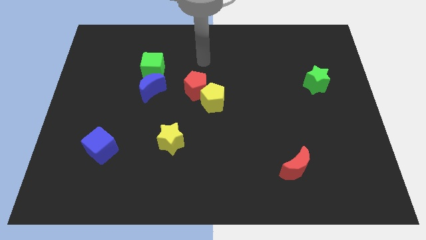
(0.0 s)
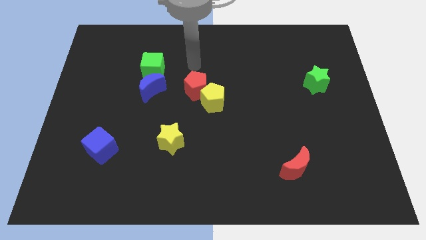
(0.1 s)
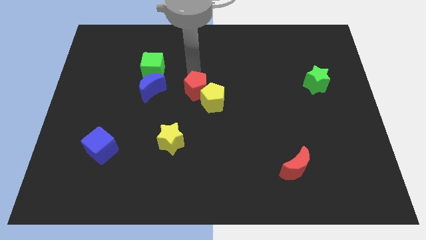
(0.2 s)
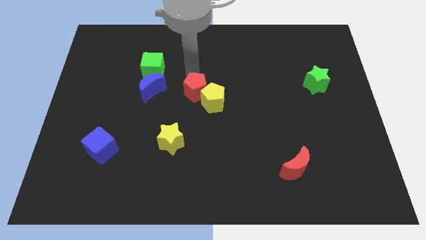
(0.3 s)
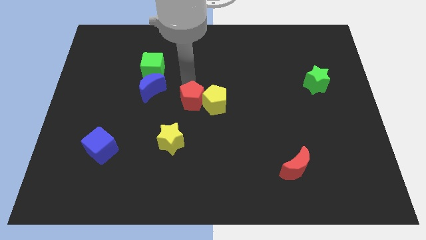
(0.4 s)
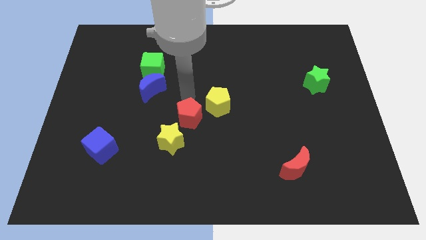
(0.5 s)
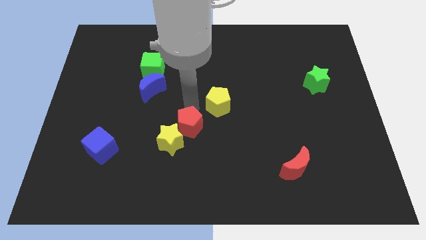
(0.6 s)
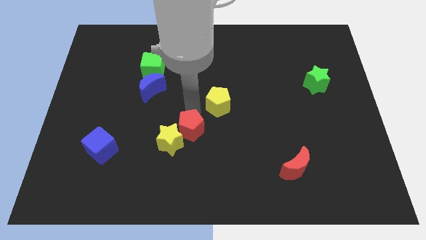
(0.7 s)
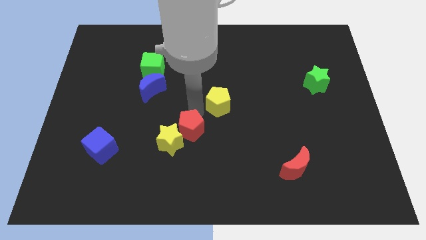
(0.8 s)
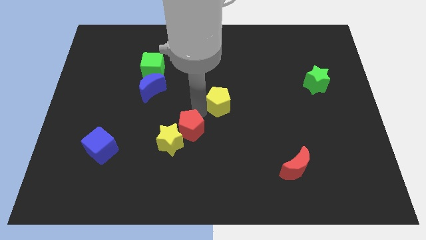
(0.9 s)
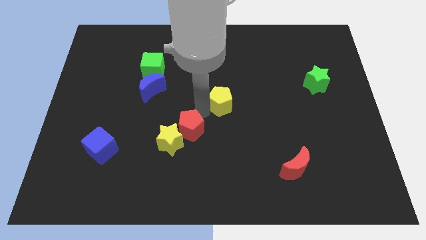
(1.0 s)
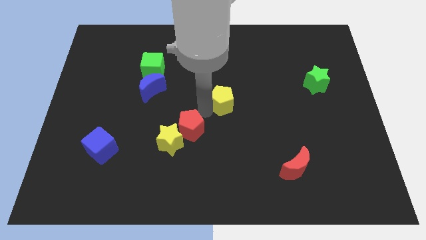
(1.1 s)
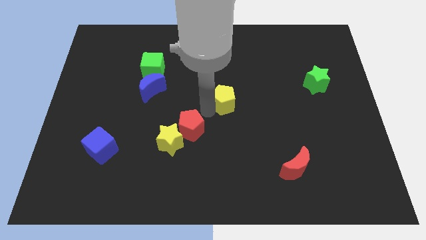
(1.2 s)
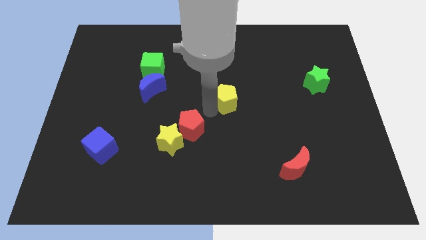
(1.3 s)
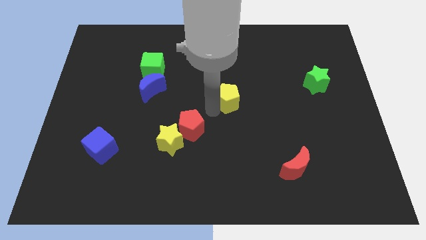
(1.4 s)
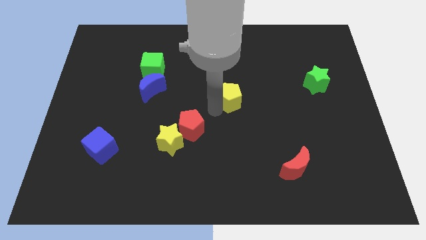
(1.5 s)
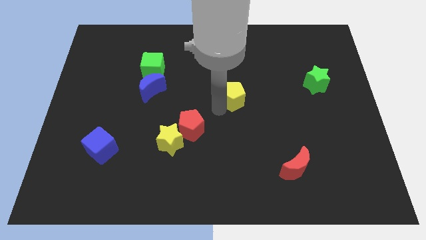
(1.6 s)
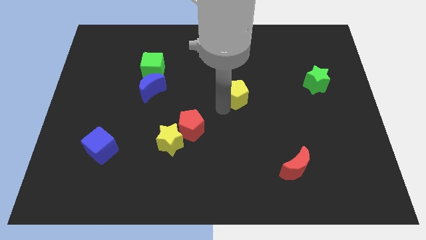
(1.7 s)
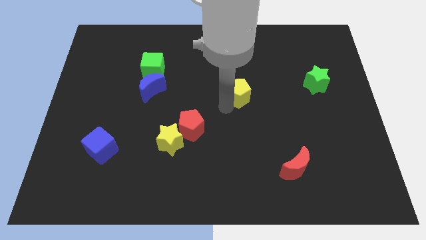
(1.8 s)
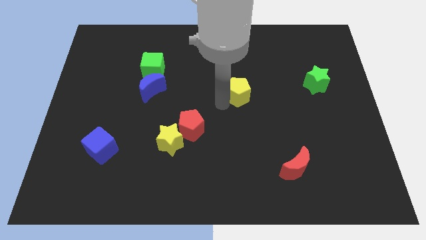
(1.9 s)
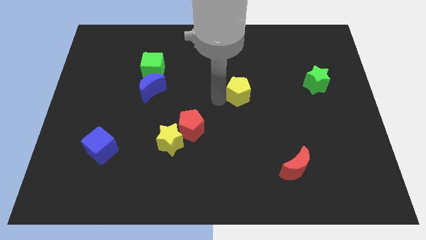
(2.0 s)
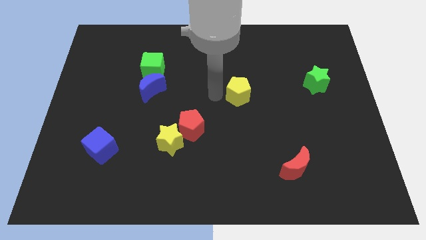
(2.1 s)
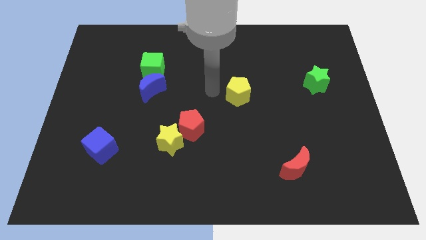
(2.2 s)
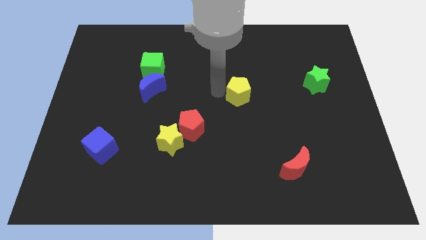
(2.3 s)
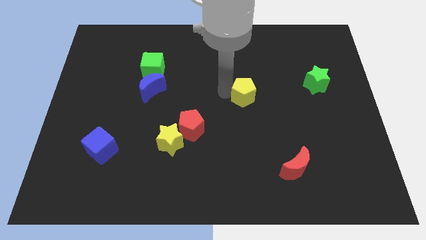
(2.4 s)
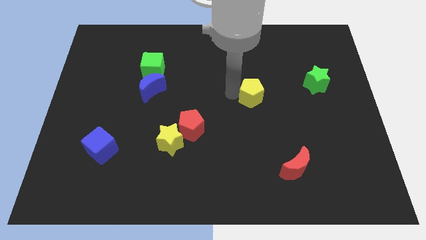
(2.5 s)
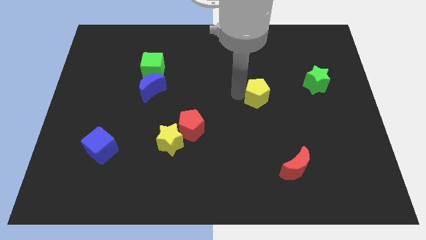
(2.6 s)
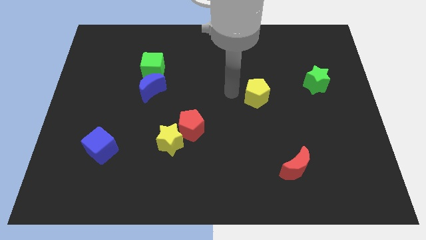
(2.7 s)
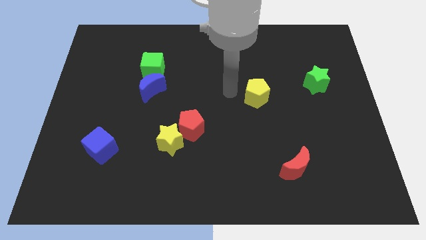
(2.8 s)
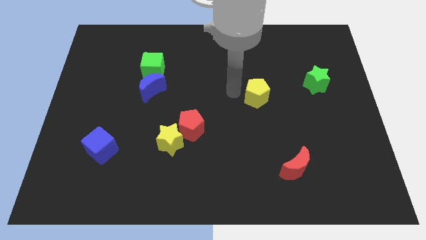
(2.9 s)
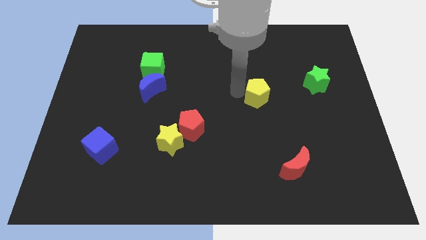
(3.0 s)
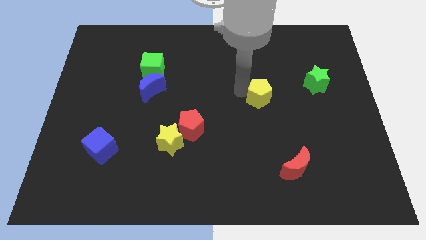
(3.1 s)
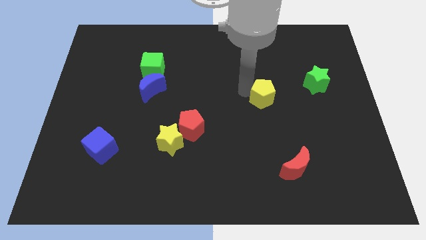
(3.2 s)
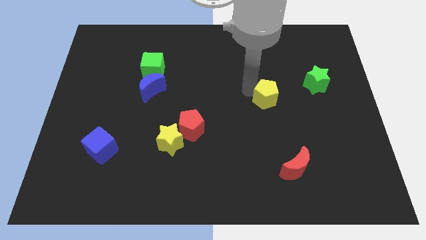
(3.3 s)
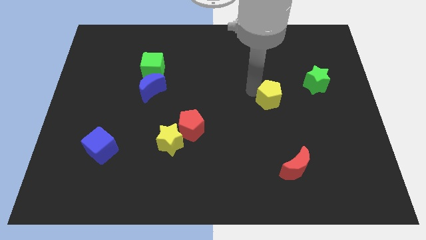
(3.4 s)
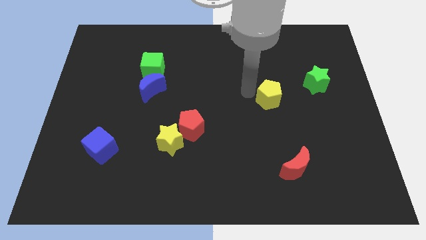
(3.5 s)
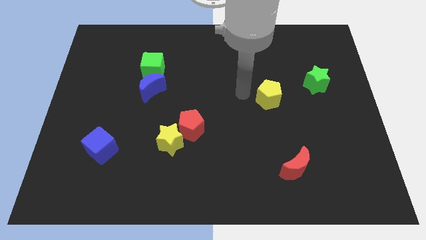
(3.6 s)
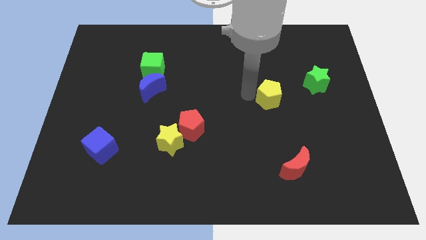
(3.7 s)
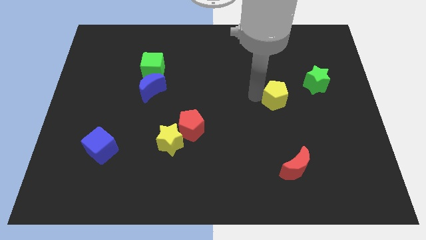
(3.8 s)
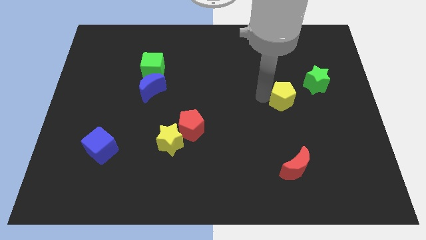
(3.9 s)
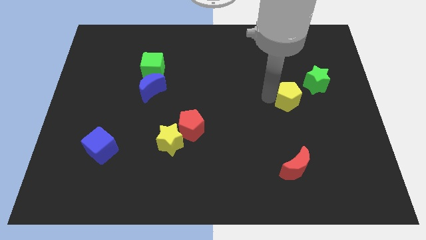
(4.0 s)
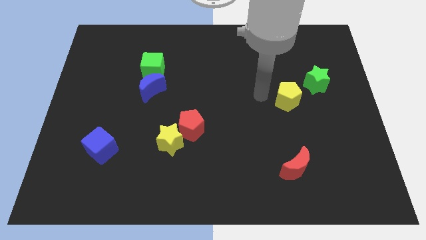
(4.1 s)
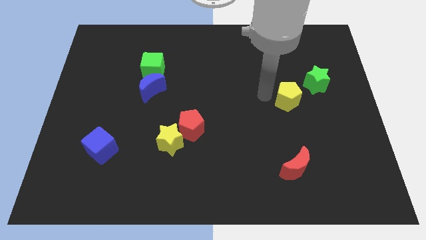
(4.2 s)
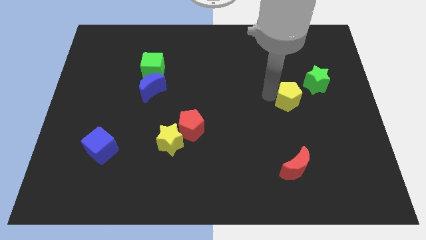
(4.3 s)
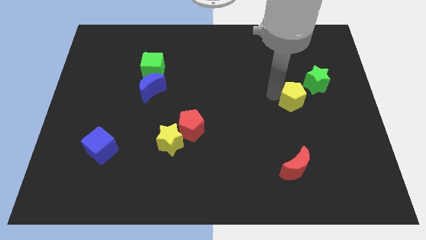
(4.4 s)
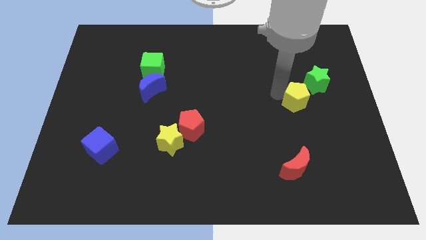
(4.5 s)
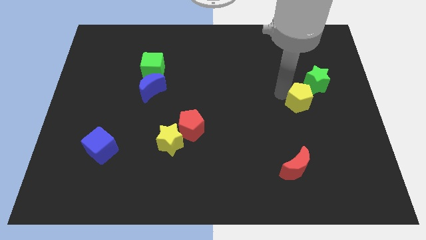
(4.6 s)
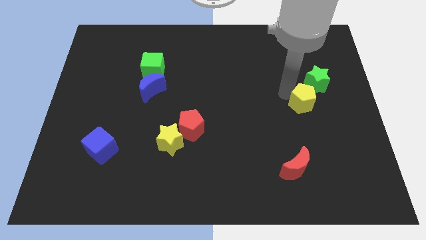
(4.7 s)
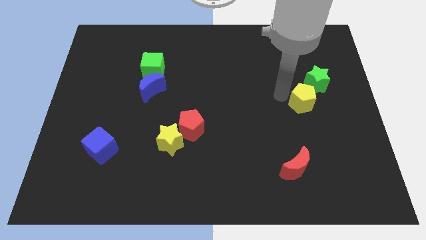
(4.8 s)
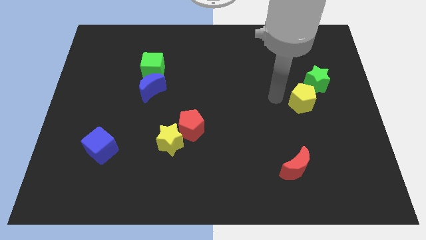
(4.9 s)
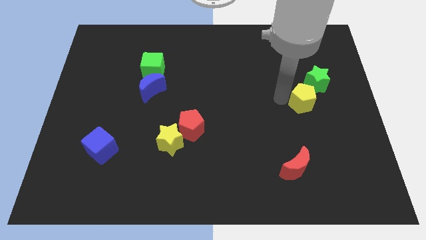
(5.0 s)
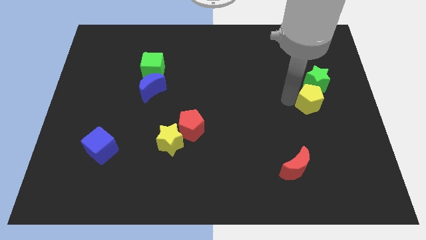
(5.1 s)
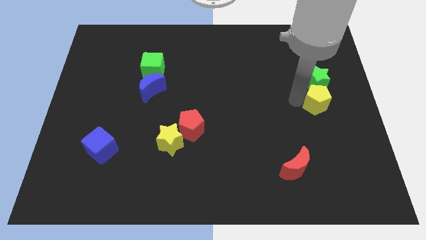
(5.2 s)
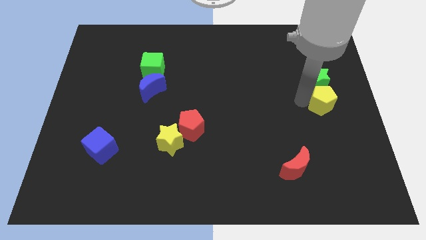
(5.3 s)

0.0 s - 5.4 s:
slide the yellow pentagon to the right side of the board

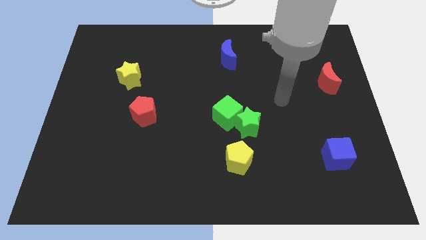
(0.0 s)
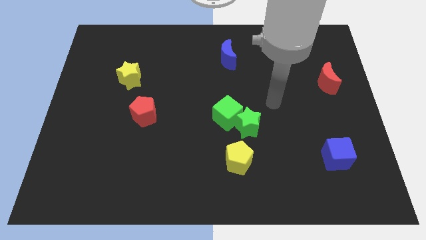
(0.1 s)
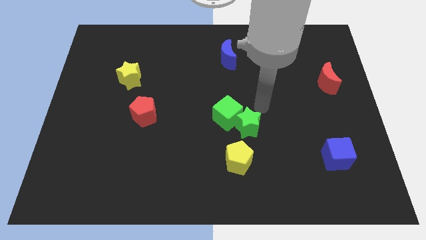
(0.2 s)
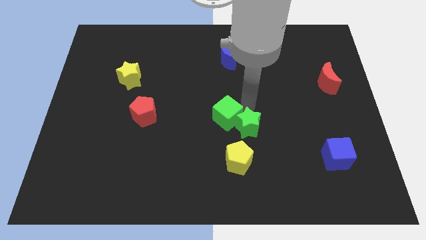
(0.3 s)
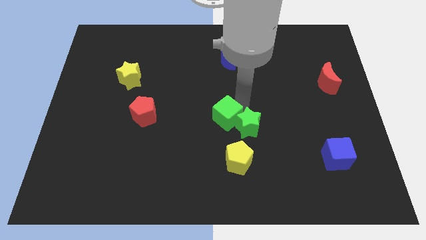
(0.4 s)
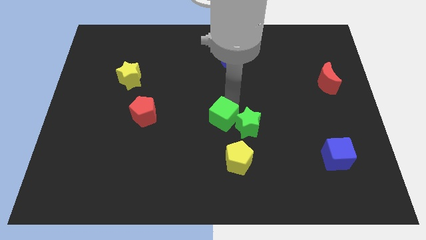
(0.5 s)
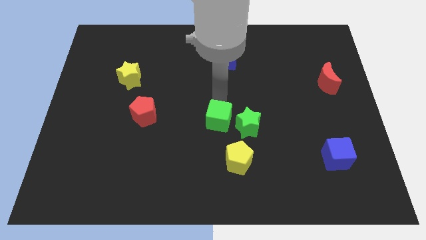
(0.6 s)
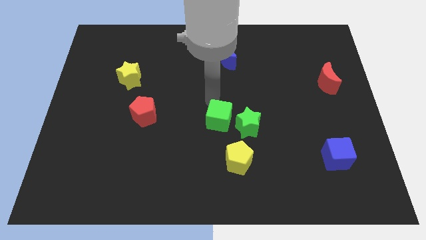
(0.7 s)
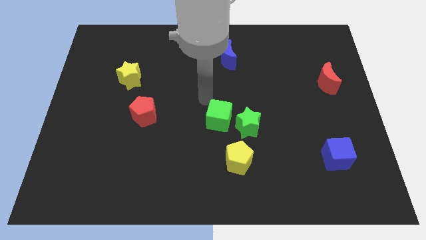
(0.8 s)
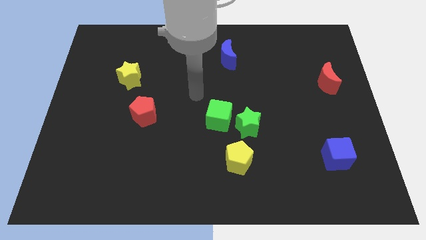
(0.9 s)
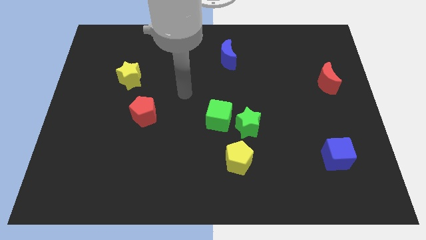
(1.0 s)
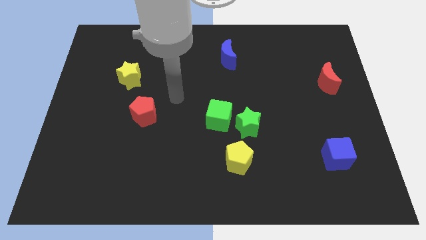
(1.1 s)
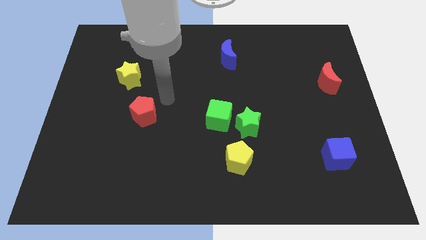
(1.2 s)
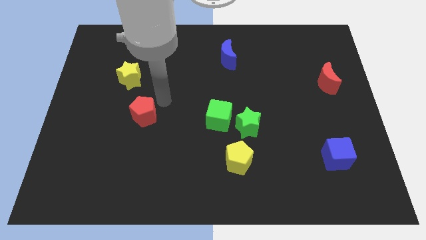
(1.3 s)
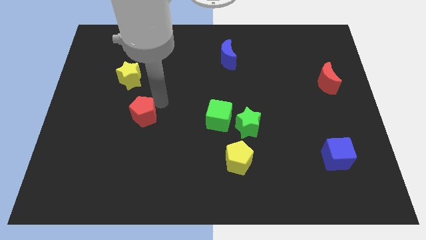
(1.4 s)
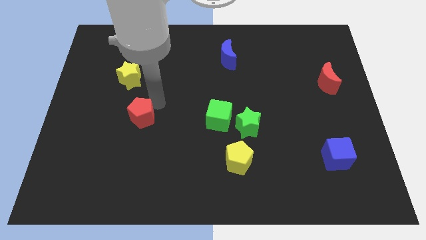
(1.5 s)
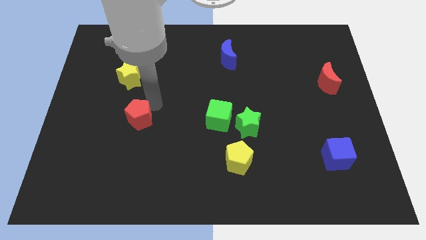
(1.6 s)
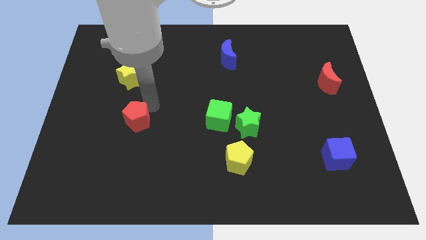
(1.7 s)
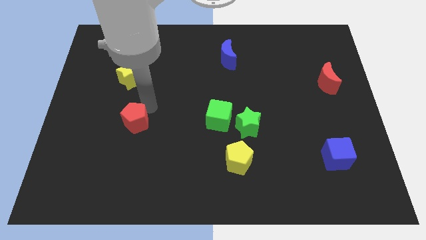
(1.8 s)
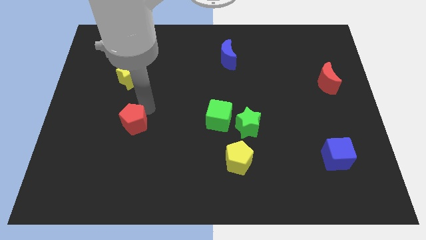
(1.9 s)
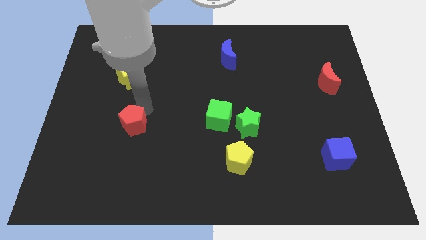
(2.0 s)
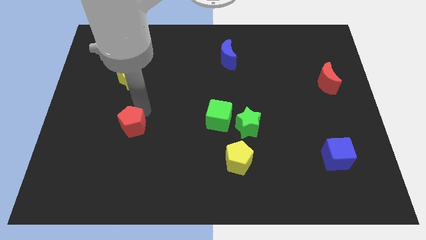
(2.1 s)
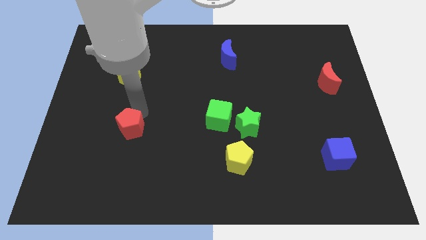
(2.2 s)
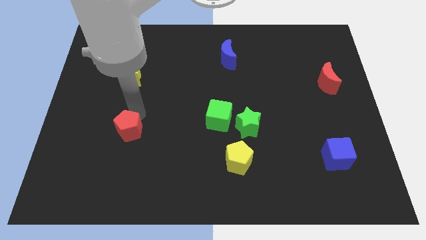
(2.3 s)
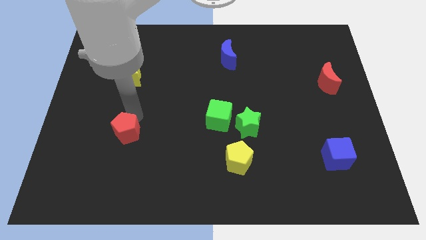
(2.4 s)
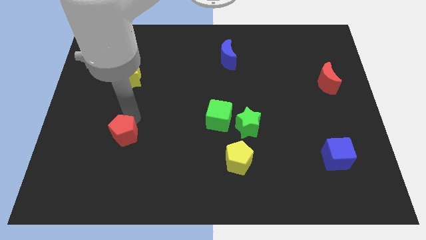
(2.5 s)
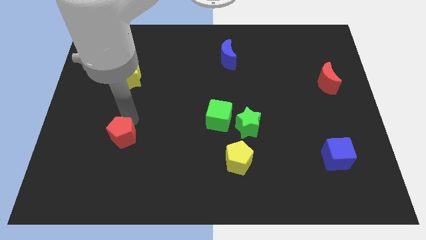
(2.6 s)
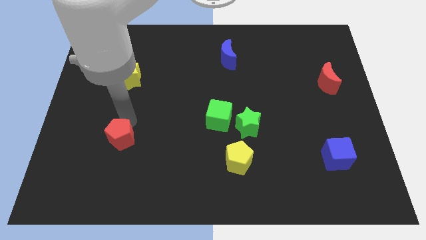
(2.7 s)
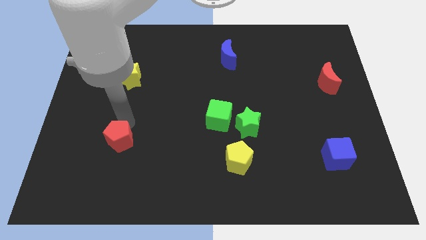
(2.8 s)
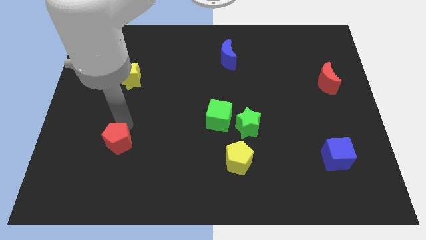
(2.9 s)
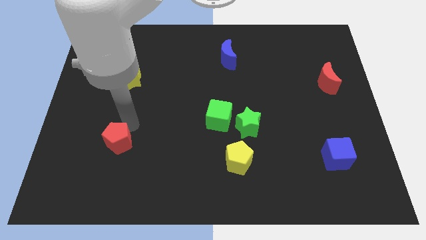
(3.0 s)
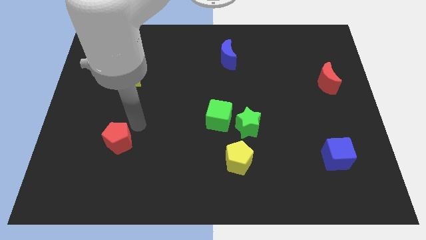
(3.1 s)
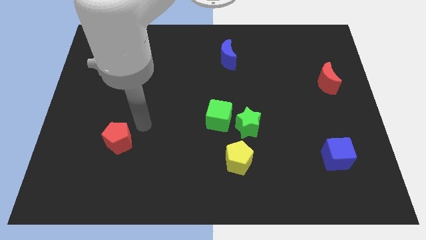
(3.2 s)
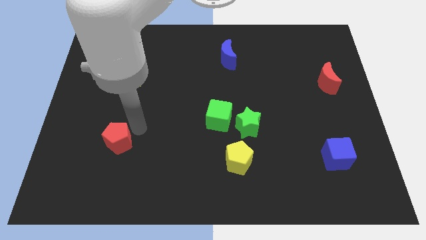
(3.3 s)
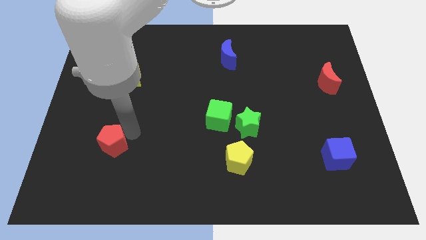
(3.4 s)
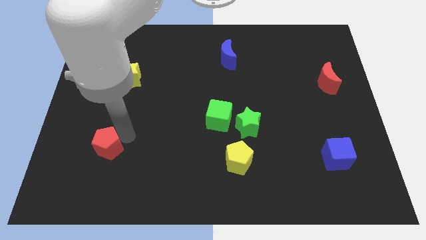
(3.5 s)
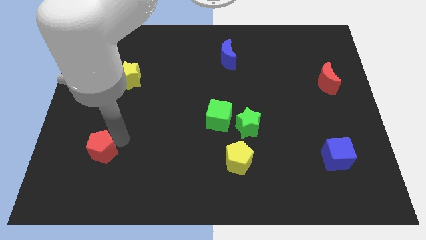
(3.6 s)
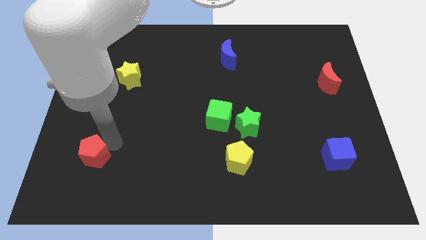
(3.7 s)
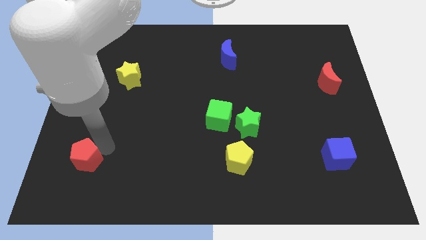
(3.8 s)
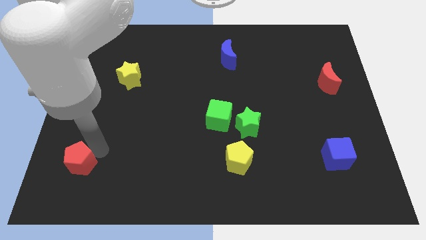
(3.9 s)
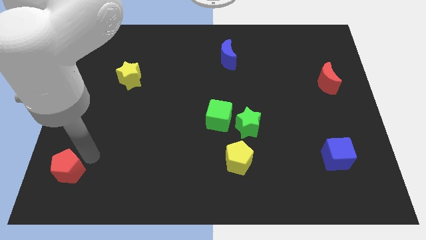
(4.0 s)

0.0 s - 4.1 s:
move the red pentagon to the bottom left
